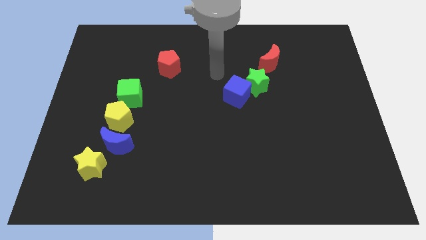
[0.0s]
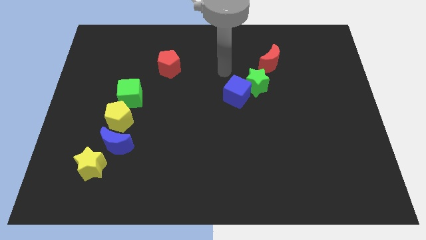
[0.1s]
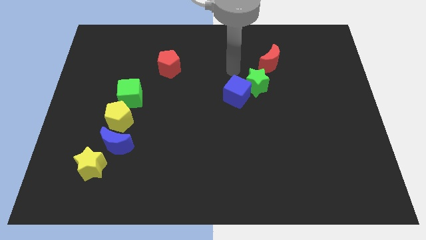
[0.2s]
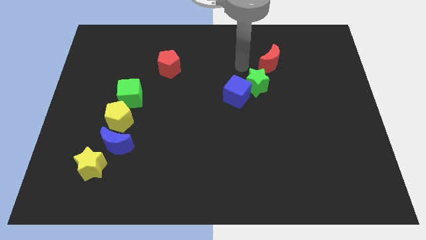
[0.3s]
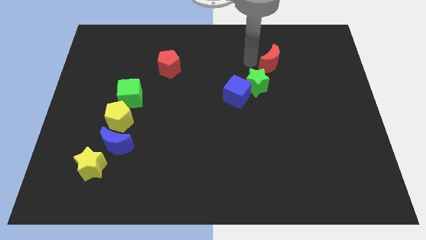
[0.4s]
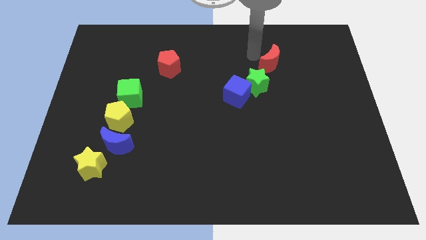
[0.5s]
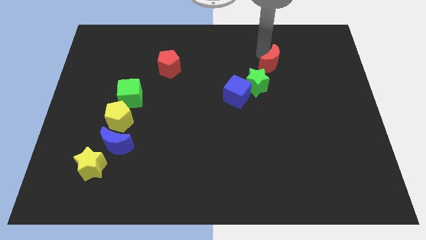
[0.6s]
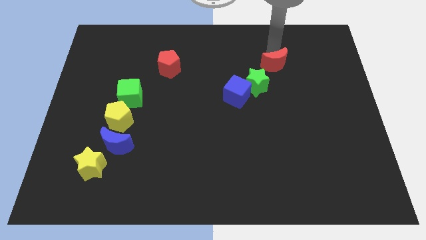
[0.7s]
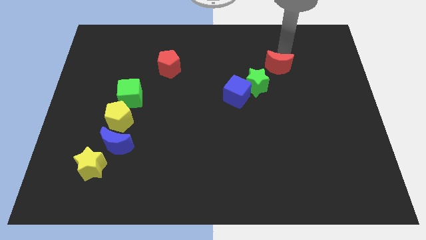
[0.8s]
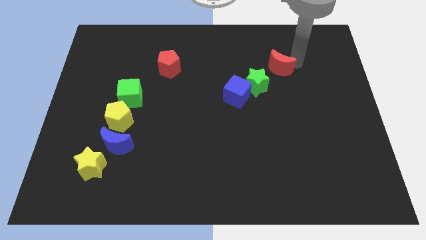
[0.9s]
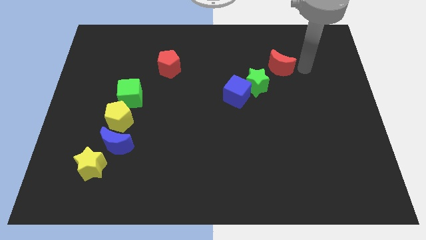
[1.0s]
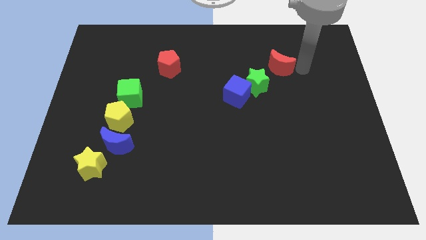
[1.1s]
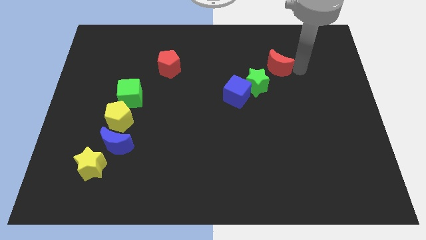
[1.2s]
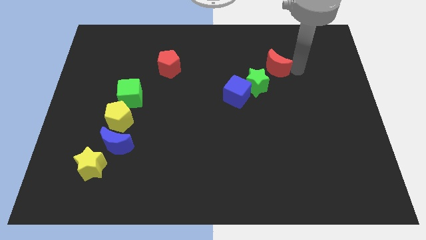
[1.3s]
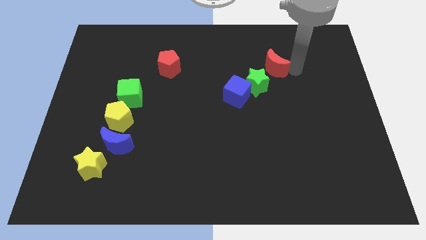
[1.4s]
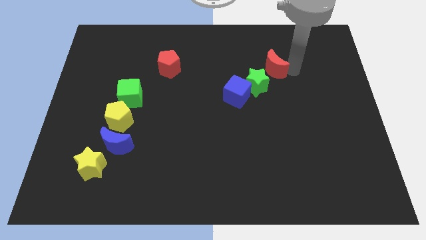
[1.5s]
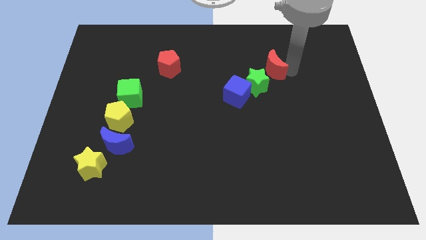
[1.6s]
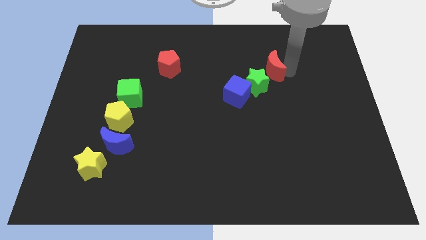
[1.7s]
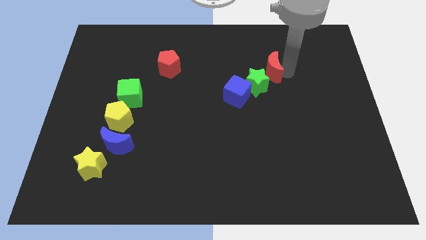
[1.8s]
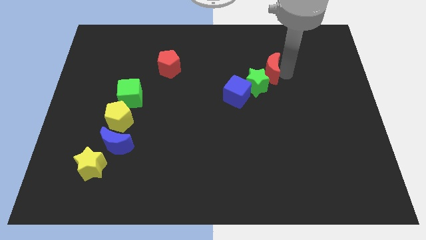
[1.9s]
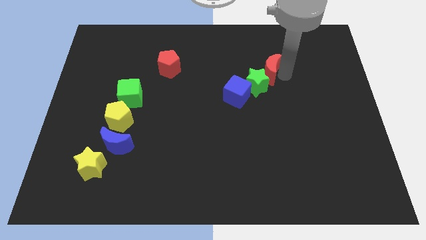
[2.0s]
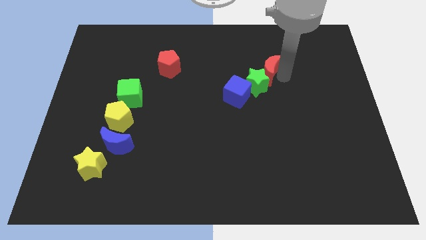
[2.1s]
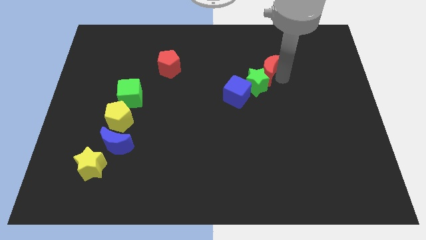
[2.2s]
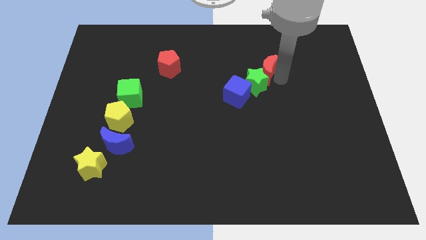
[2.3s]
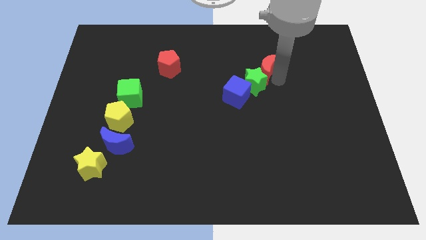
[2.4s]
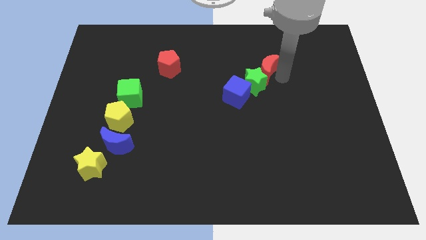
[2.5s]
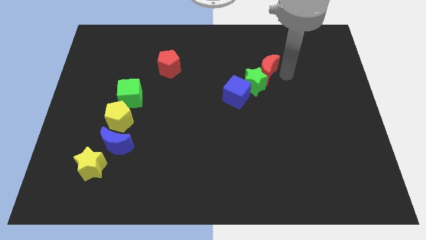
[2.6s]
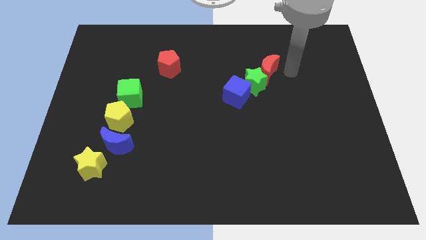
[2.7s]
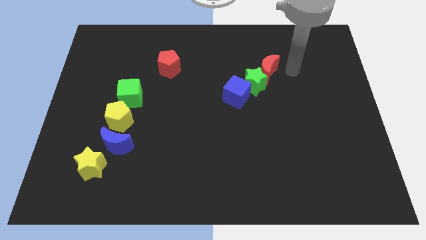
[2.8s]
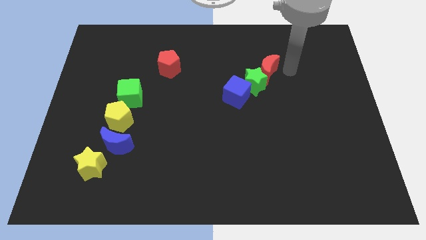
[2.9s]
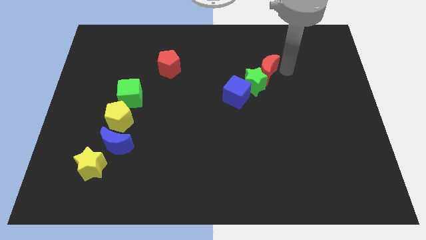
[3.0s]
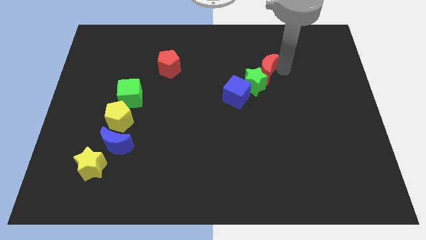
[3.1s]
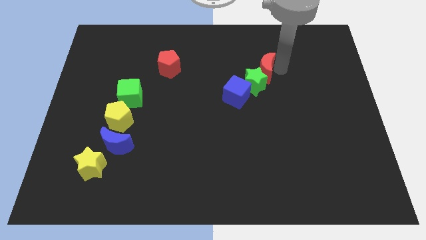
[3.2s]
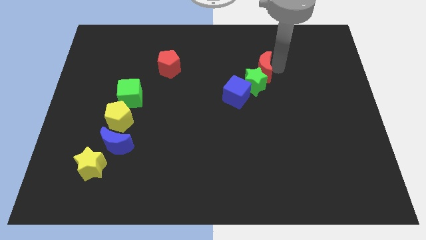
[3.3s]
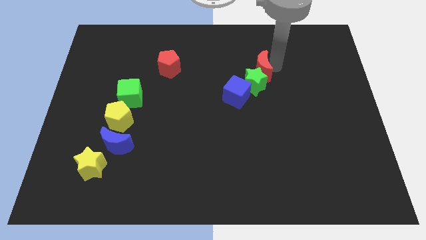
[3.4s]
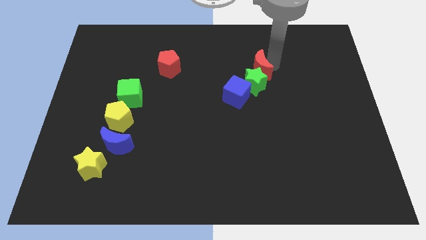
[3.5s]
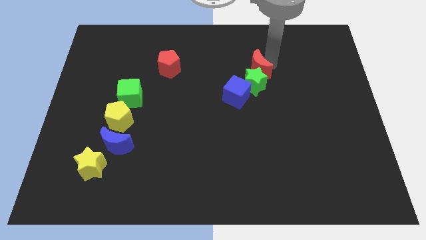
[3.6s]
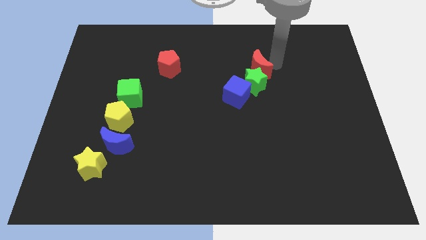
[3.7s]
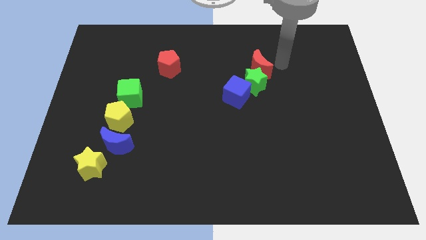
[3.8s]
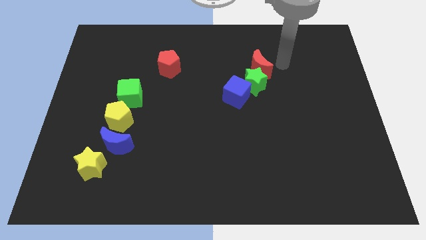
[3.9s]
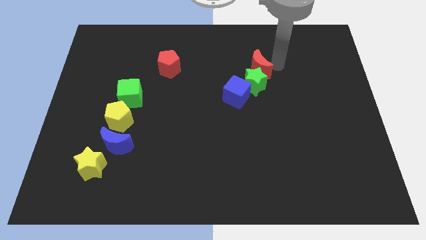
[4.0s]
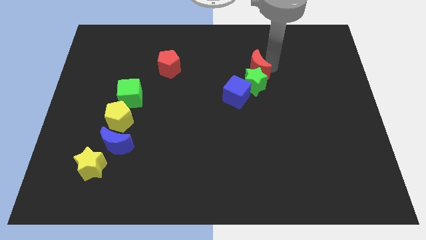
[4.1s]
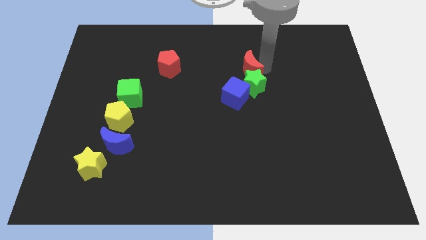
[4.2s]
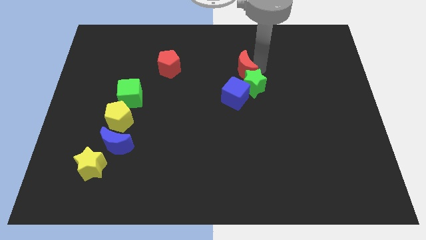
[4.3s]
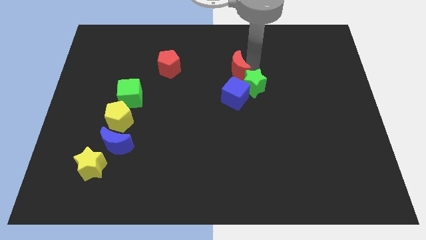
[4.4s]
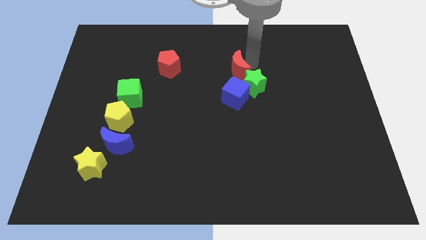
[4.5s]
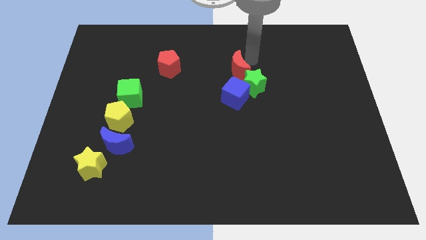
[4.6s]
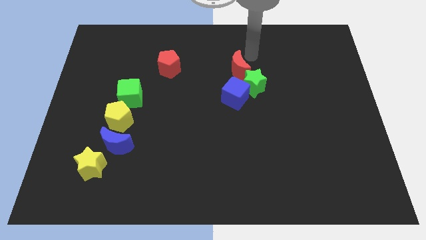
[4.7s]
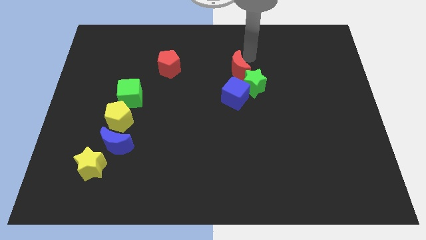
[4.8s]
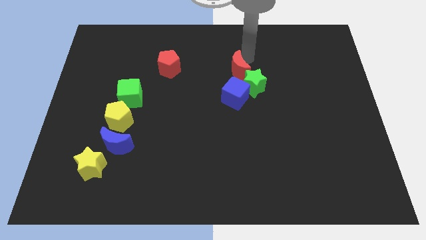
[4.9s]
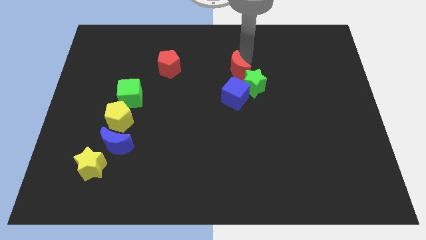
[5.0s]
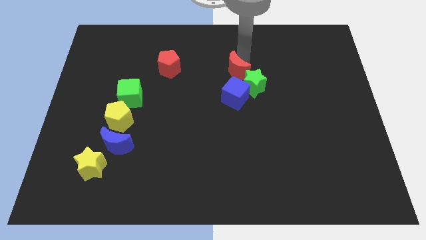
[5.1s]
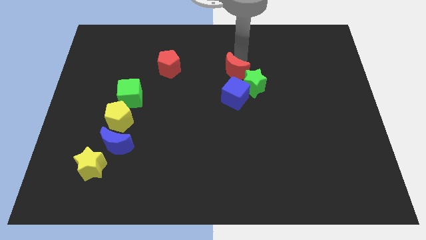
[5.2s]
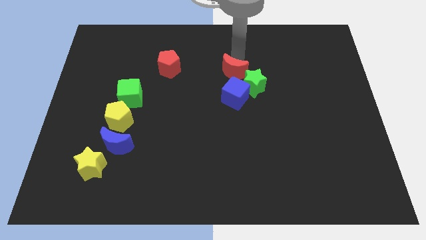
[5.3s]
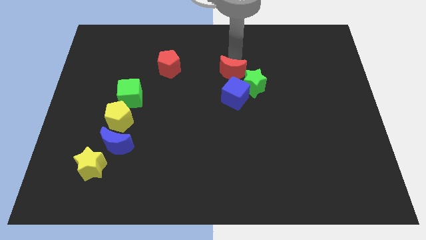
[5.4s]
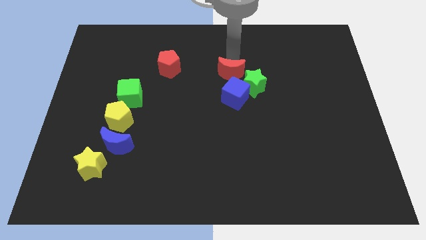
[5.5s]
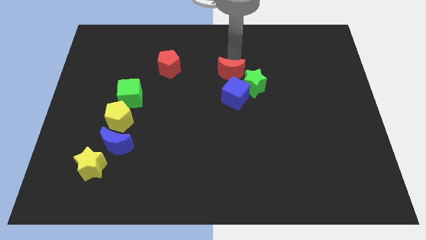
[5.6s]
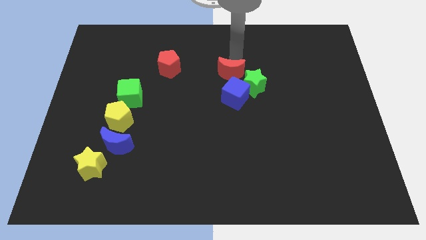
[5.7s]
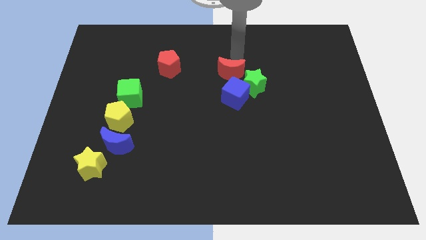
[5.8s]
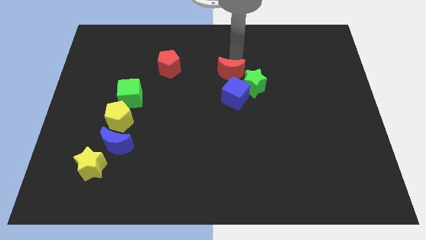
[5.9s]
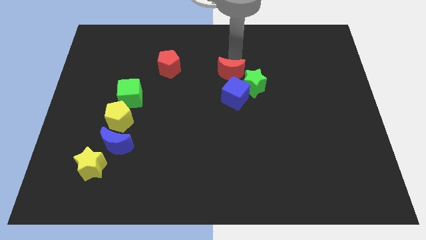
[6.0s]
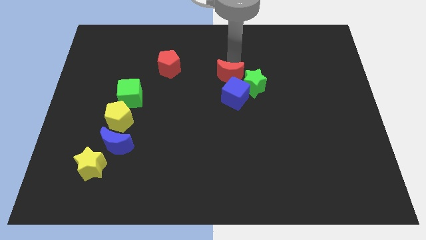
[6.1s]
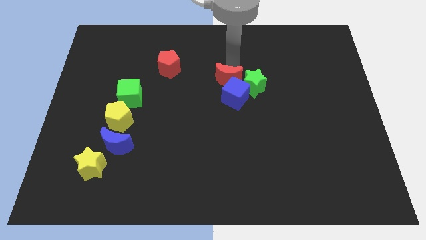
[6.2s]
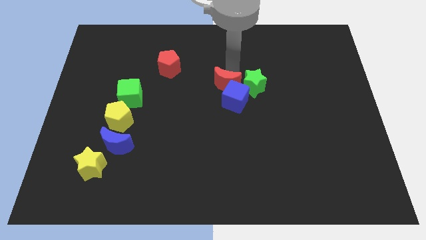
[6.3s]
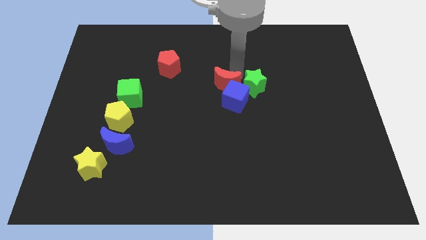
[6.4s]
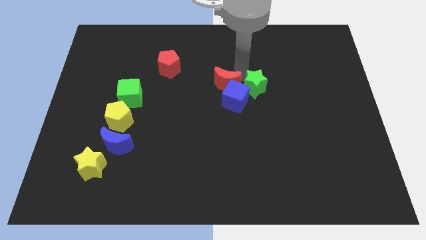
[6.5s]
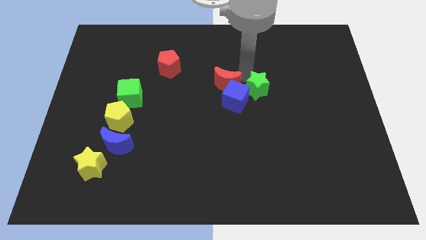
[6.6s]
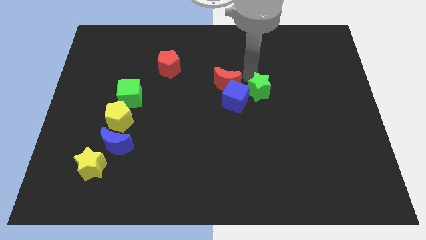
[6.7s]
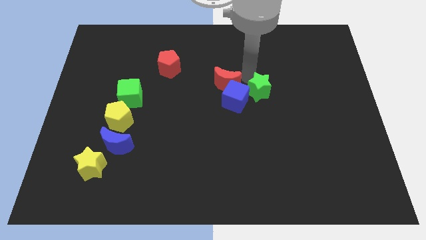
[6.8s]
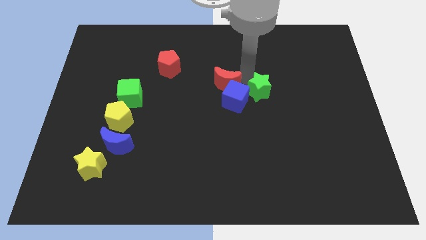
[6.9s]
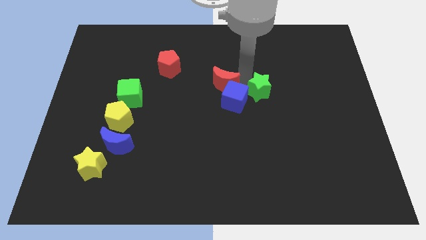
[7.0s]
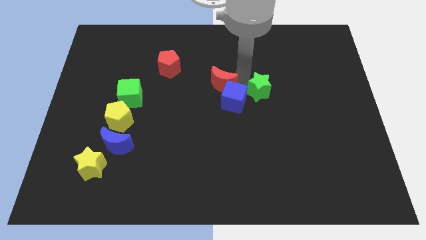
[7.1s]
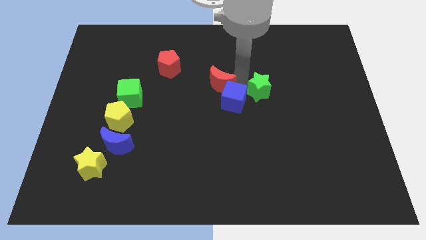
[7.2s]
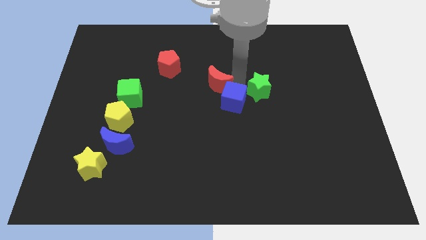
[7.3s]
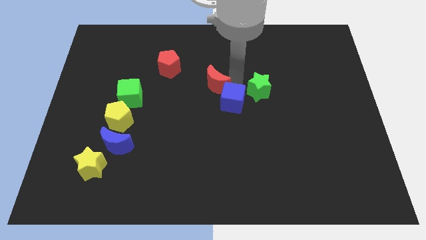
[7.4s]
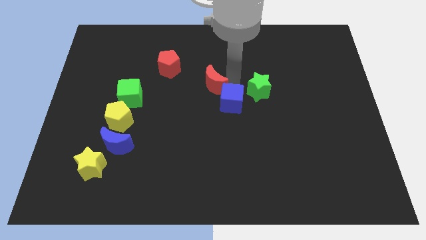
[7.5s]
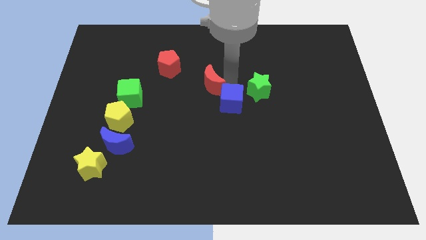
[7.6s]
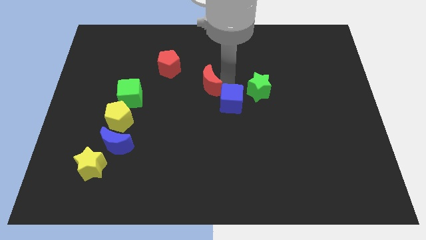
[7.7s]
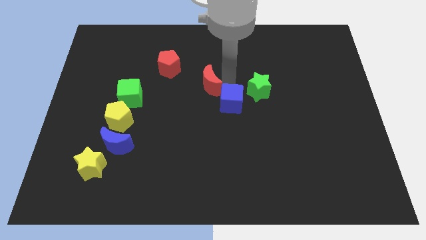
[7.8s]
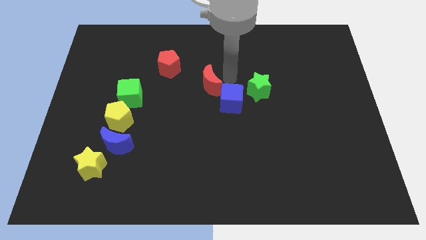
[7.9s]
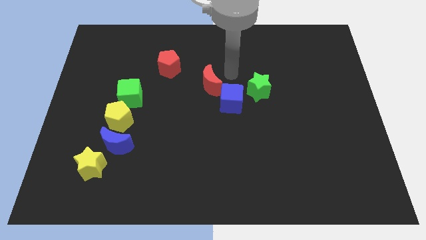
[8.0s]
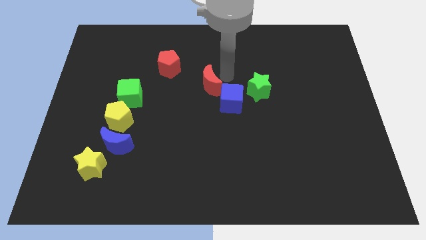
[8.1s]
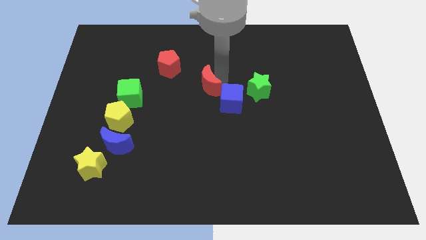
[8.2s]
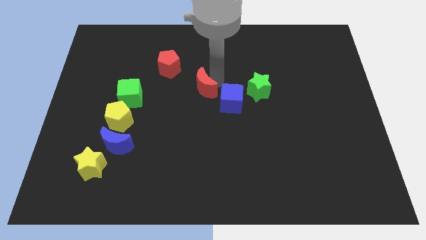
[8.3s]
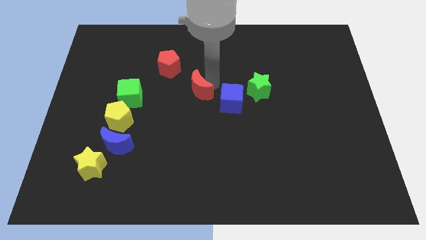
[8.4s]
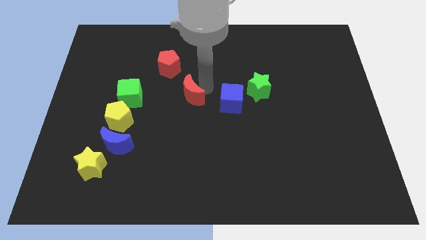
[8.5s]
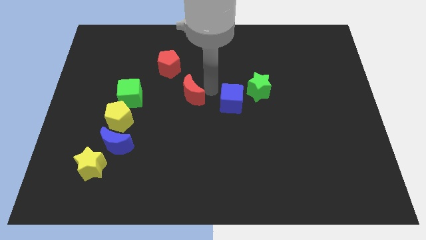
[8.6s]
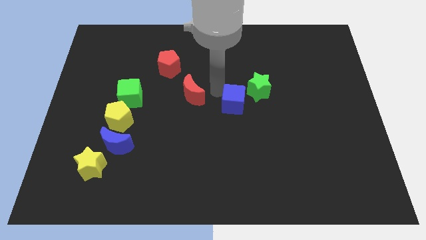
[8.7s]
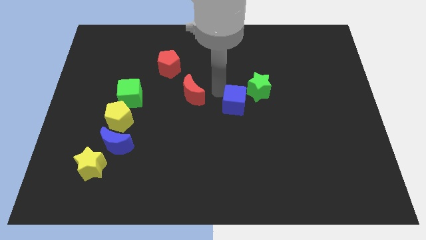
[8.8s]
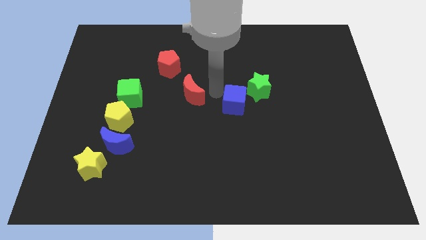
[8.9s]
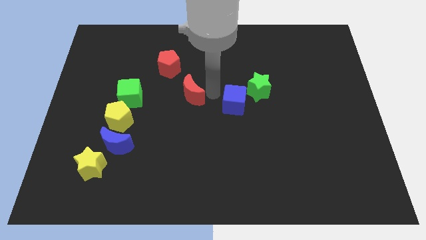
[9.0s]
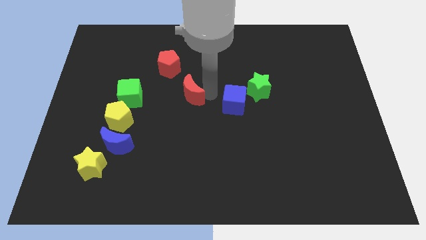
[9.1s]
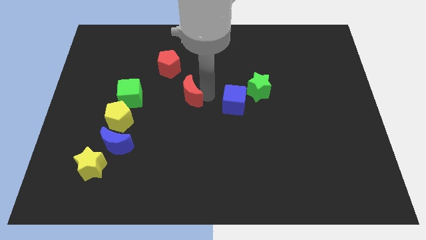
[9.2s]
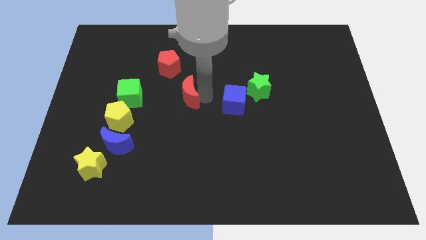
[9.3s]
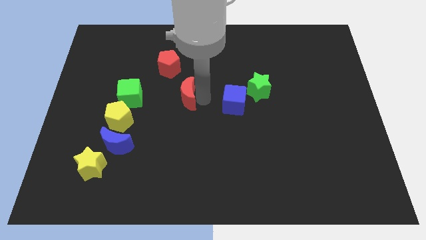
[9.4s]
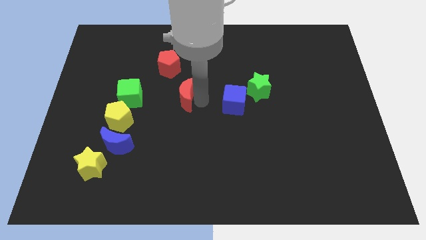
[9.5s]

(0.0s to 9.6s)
slide the red moon below the red pentagon
